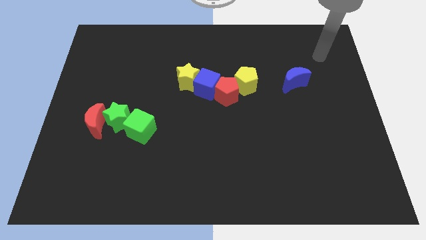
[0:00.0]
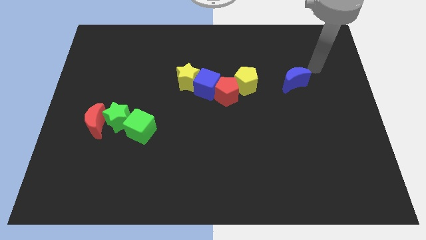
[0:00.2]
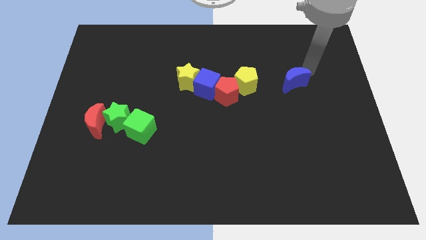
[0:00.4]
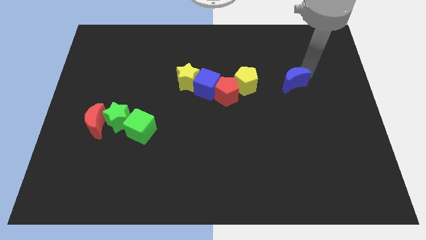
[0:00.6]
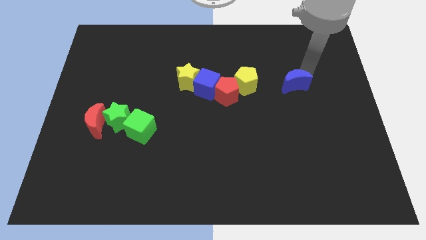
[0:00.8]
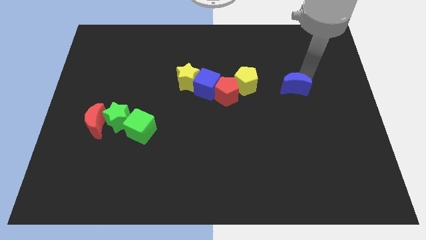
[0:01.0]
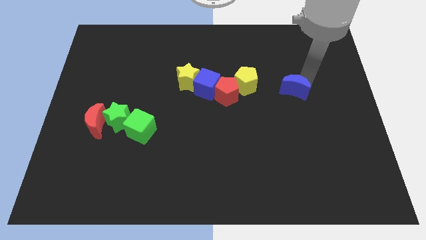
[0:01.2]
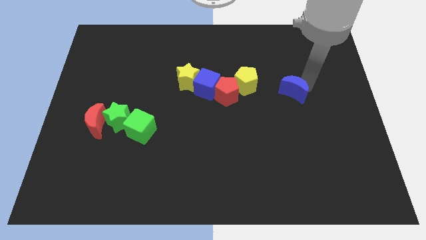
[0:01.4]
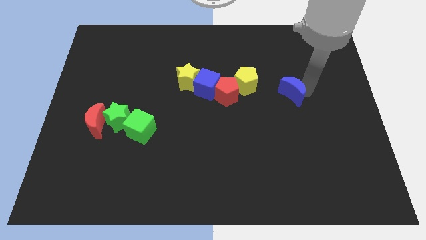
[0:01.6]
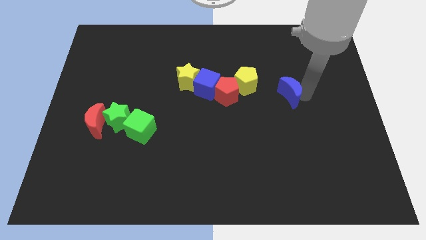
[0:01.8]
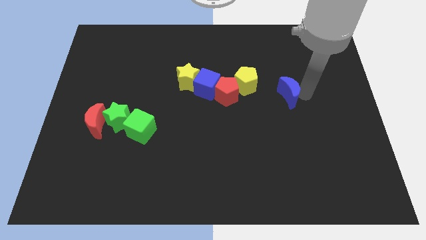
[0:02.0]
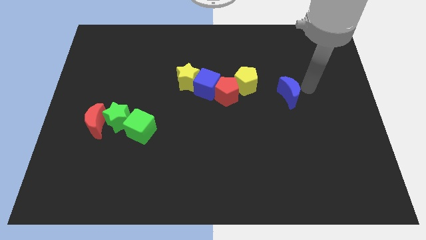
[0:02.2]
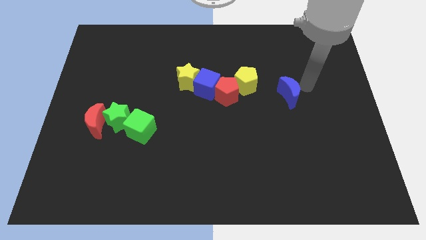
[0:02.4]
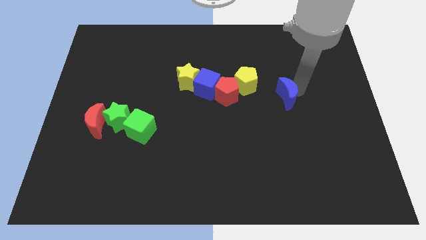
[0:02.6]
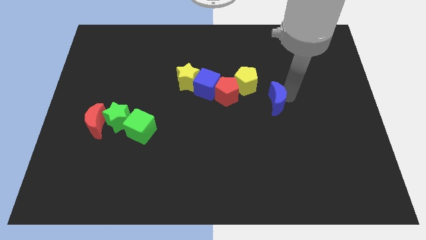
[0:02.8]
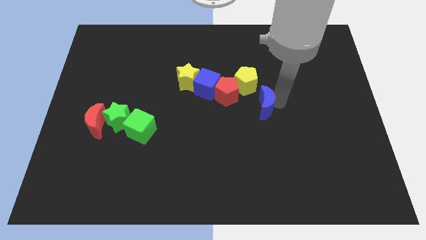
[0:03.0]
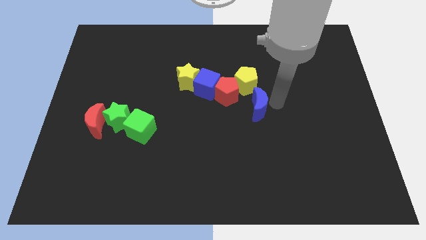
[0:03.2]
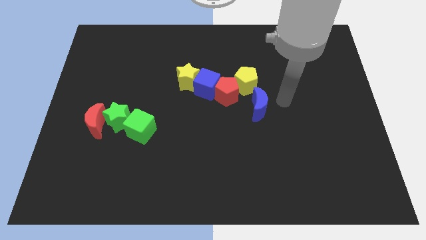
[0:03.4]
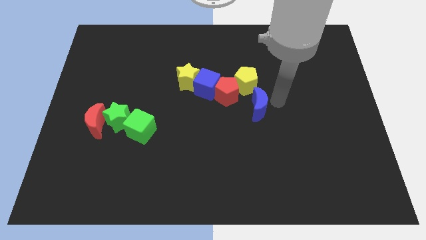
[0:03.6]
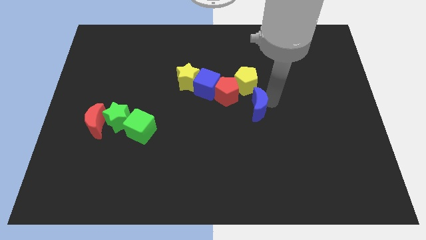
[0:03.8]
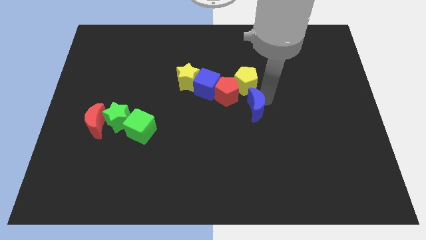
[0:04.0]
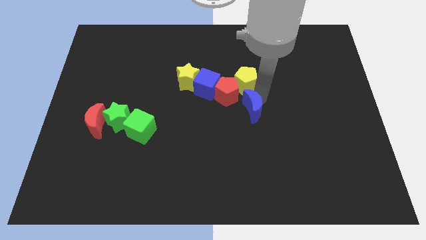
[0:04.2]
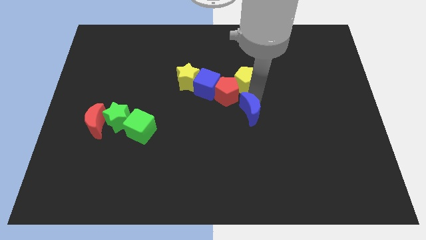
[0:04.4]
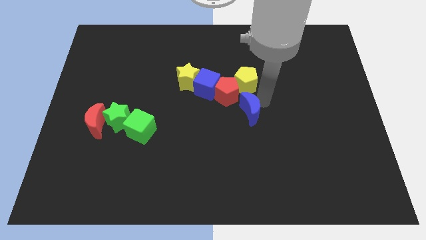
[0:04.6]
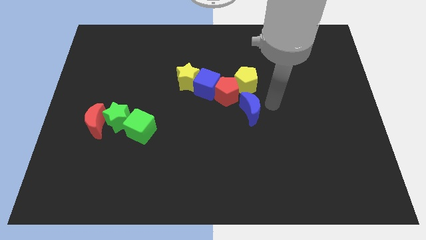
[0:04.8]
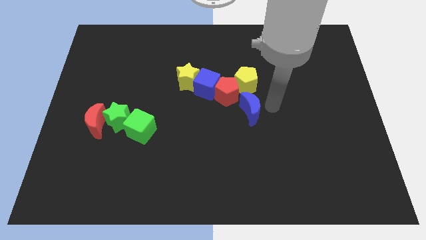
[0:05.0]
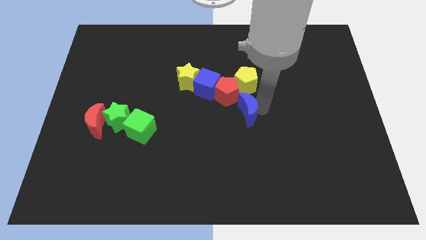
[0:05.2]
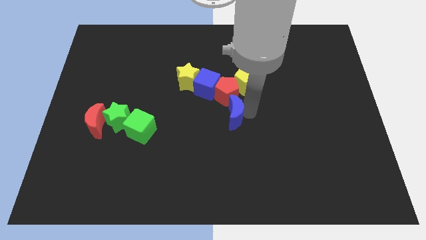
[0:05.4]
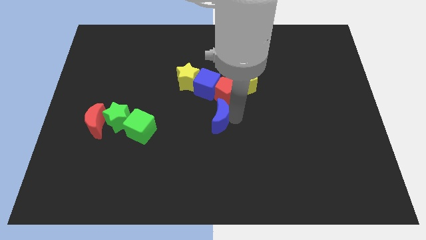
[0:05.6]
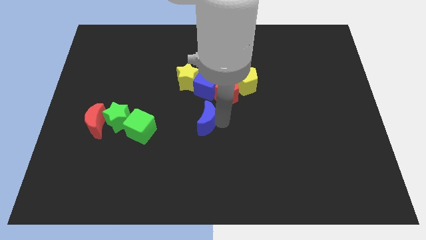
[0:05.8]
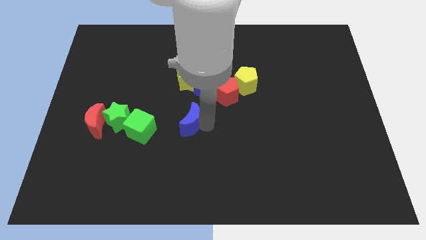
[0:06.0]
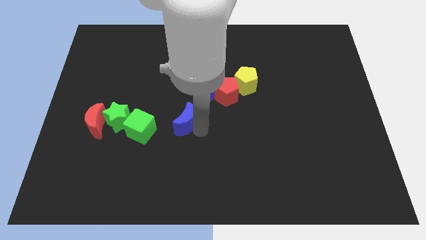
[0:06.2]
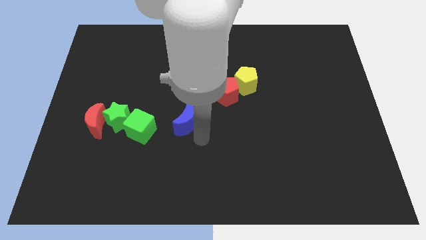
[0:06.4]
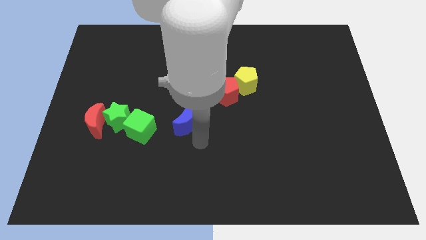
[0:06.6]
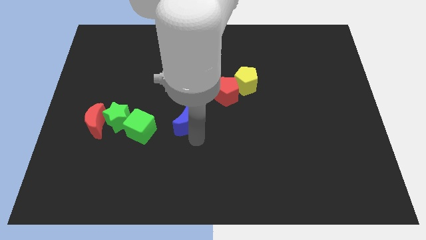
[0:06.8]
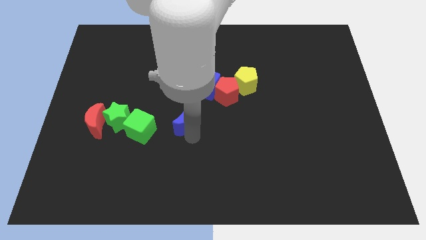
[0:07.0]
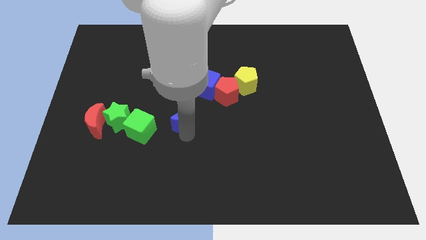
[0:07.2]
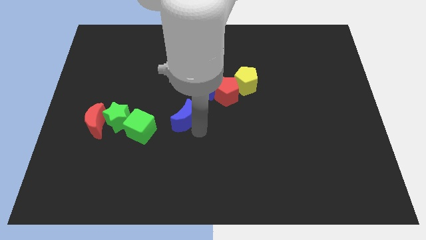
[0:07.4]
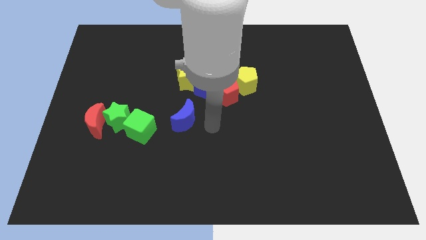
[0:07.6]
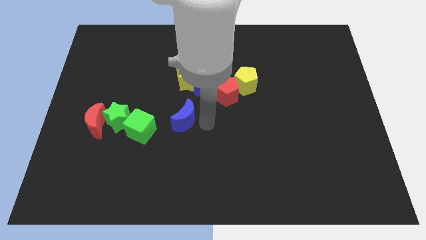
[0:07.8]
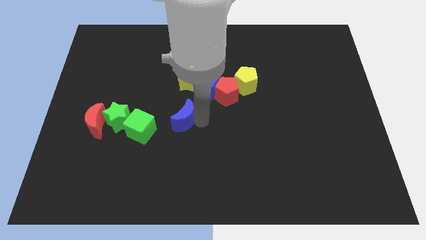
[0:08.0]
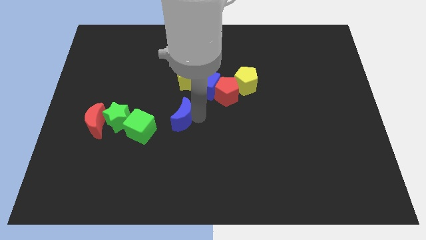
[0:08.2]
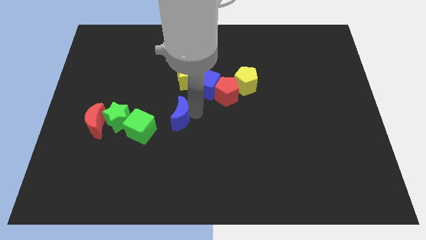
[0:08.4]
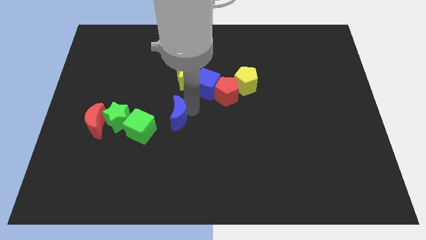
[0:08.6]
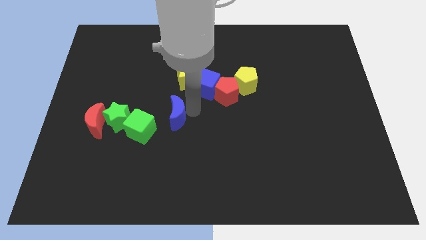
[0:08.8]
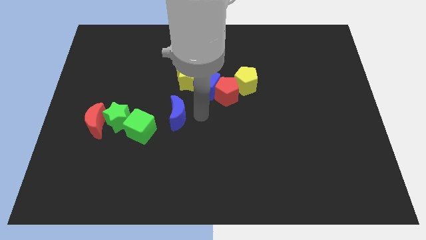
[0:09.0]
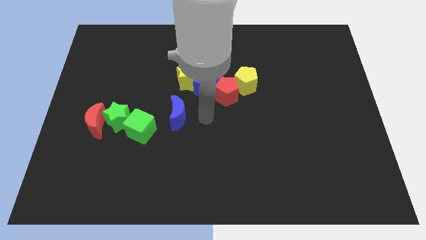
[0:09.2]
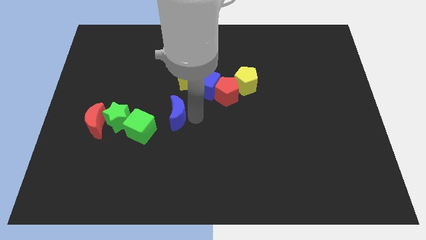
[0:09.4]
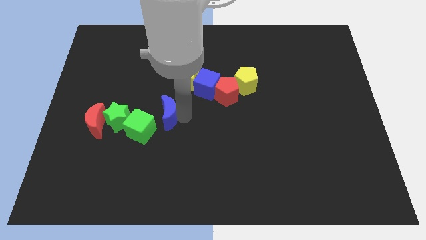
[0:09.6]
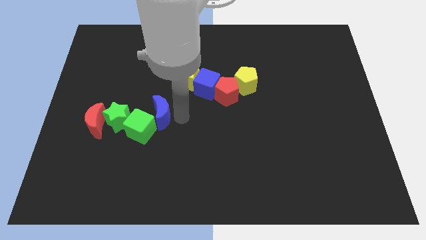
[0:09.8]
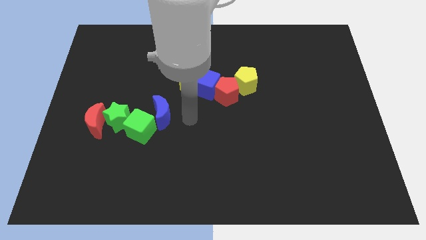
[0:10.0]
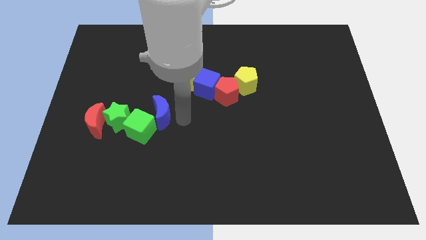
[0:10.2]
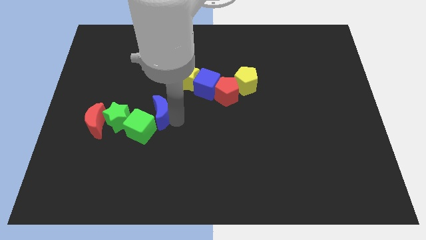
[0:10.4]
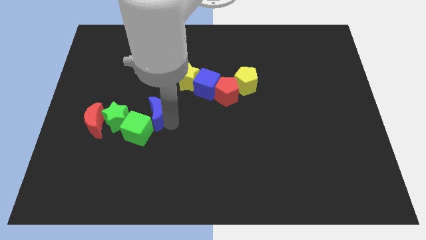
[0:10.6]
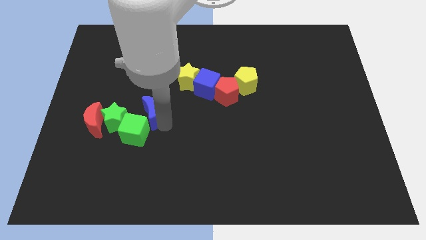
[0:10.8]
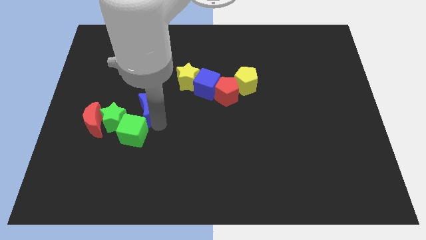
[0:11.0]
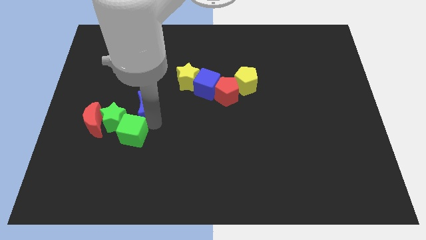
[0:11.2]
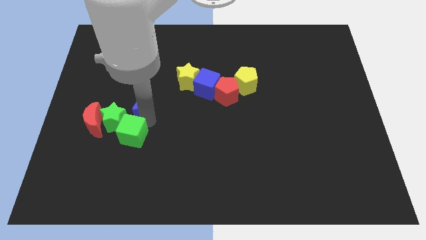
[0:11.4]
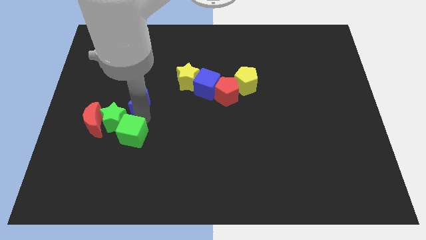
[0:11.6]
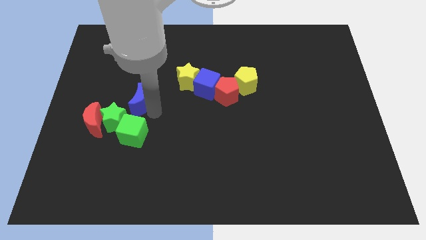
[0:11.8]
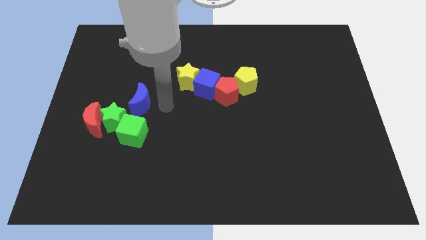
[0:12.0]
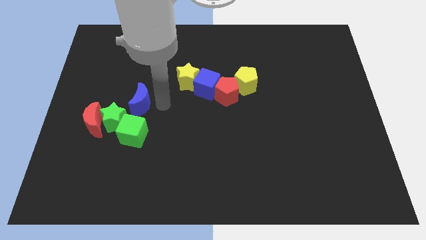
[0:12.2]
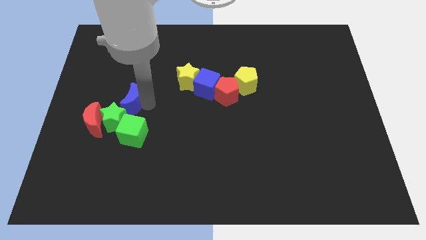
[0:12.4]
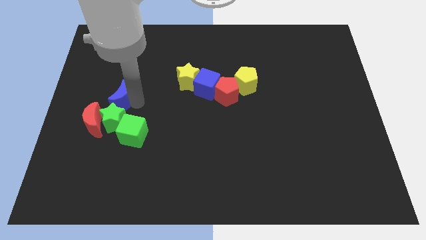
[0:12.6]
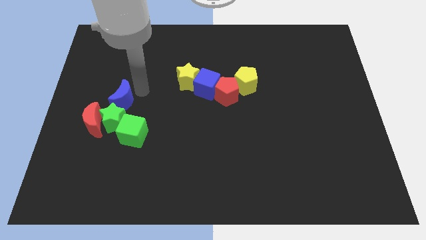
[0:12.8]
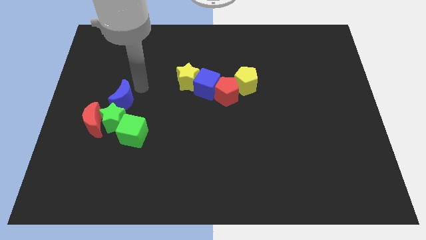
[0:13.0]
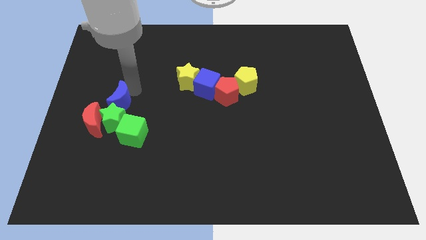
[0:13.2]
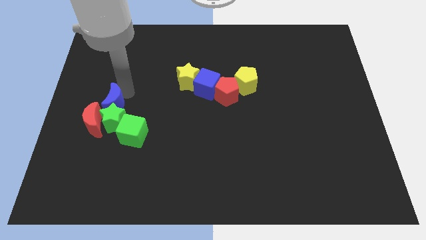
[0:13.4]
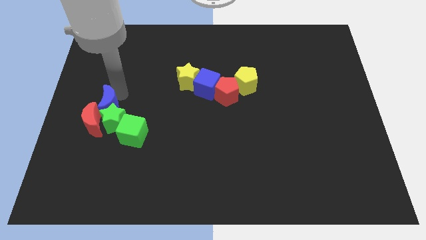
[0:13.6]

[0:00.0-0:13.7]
put the blue moon to the red moon

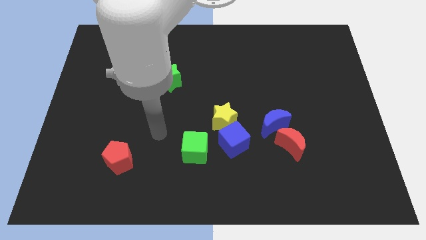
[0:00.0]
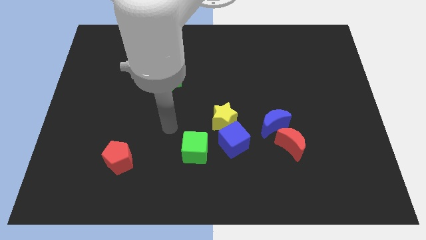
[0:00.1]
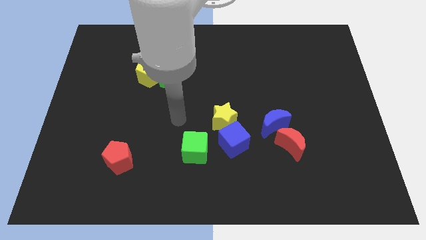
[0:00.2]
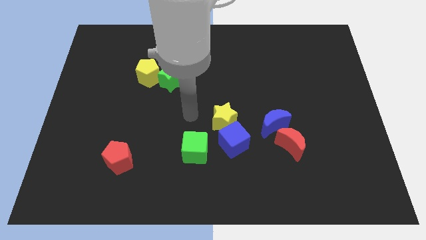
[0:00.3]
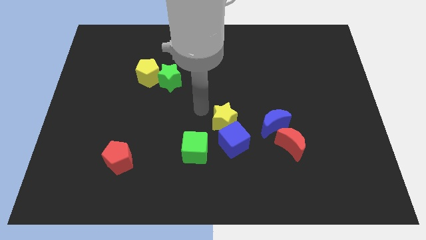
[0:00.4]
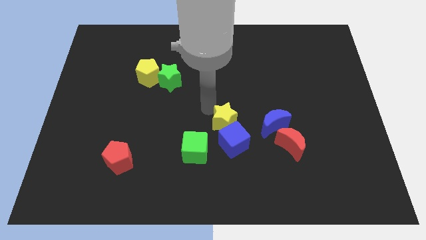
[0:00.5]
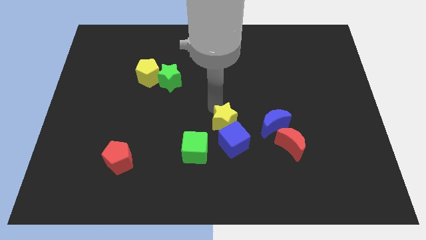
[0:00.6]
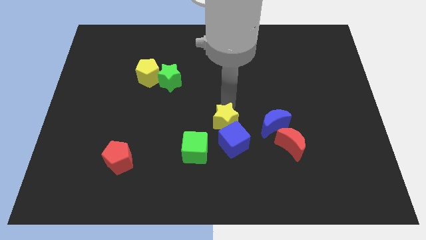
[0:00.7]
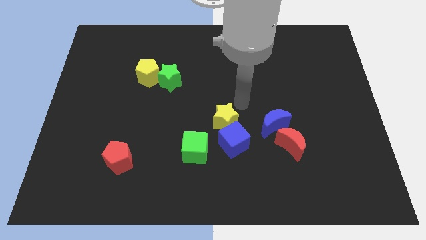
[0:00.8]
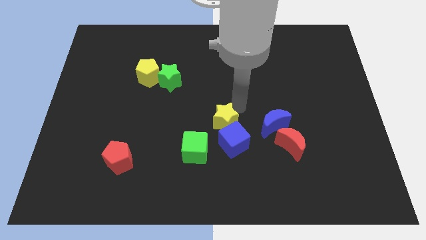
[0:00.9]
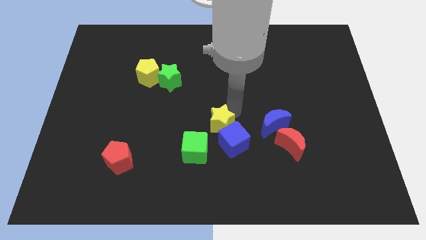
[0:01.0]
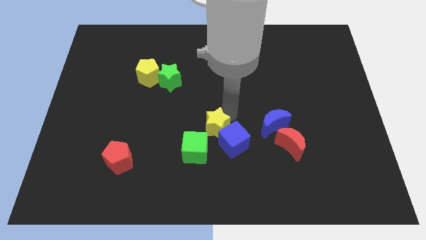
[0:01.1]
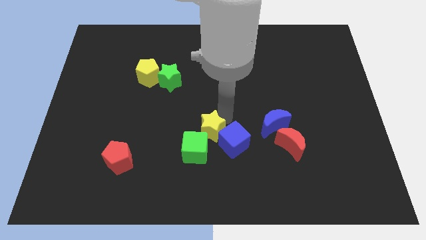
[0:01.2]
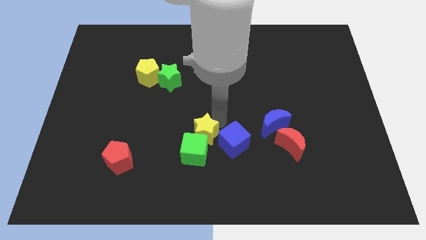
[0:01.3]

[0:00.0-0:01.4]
push the yellow star to the green cube
